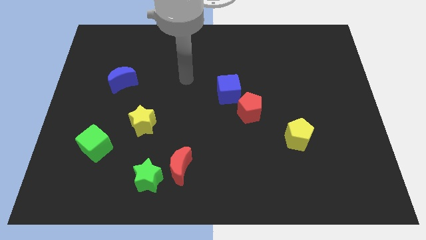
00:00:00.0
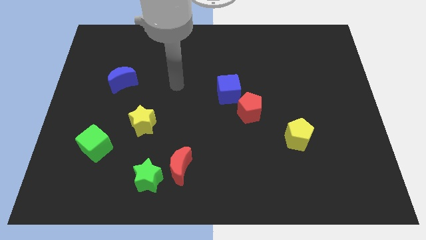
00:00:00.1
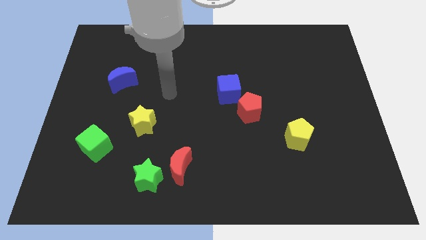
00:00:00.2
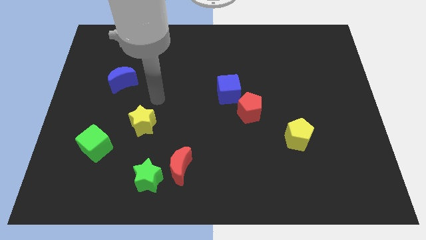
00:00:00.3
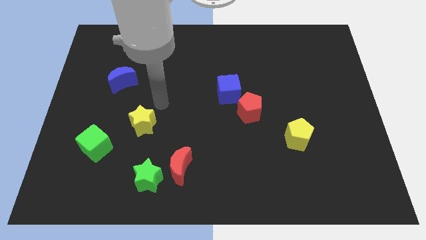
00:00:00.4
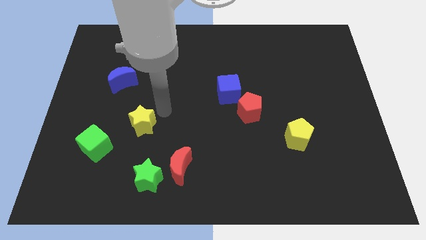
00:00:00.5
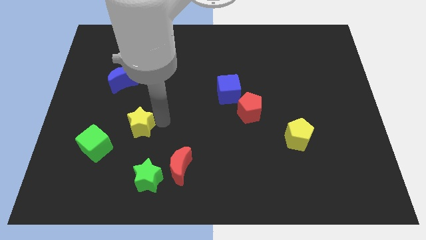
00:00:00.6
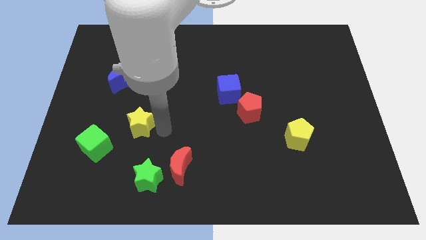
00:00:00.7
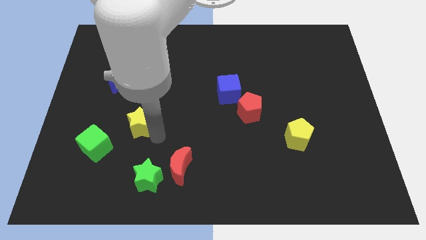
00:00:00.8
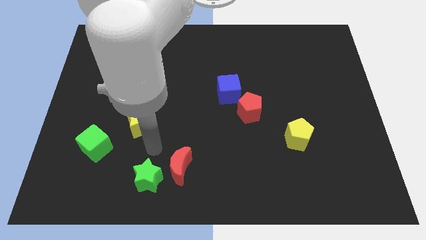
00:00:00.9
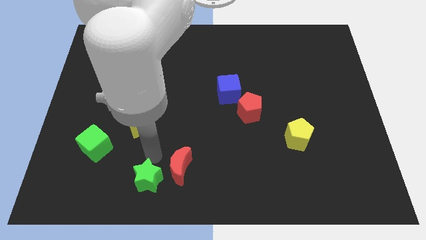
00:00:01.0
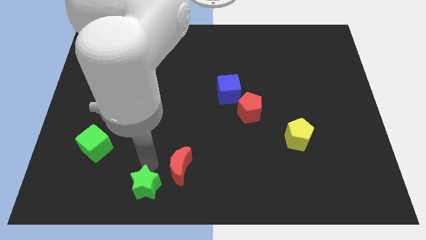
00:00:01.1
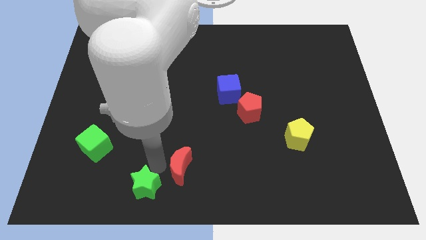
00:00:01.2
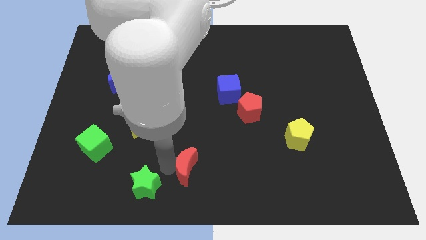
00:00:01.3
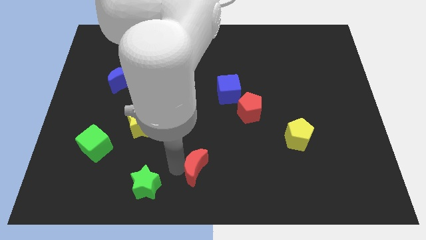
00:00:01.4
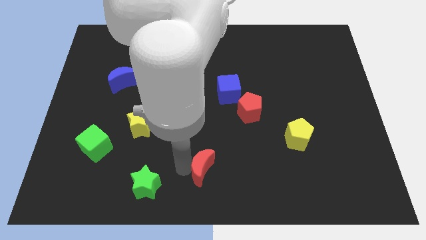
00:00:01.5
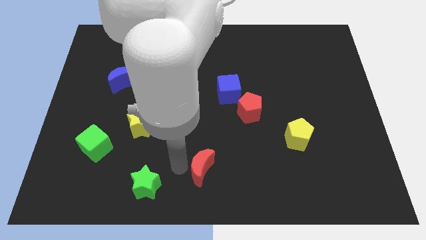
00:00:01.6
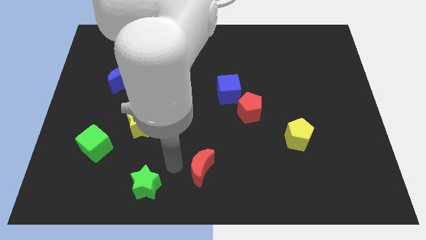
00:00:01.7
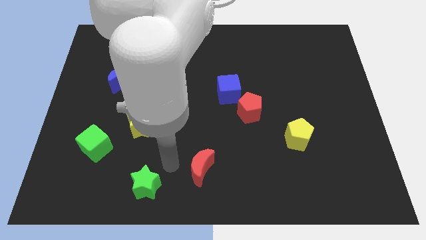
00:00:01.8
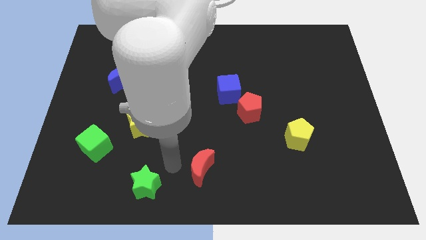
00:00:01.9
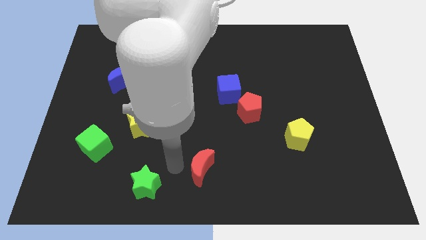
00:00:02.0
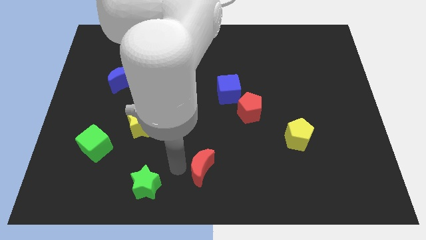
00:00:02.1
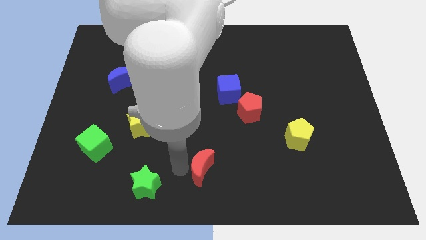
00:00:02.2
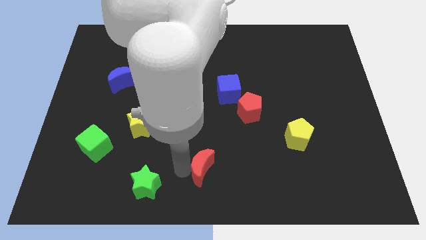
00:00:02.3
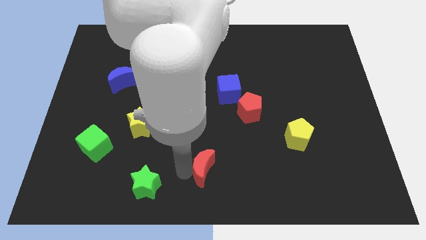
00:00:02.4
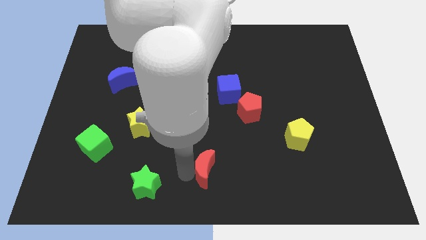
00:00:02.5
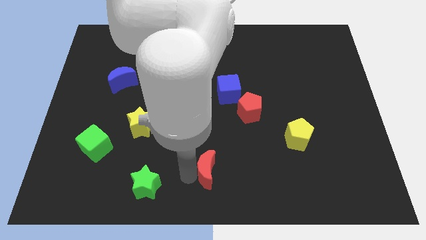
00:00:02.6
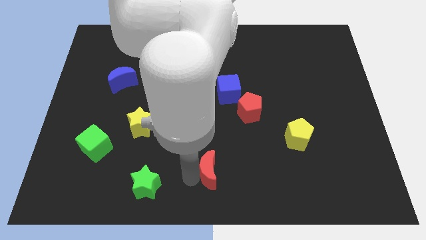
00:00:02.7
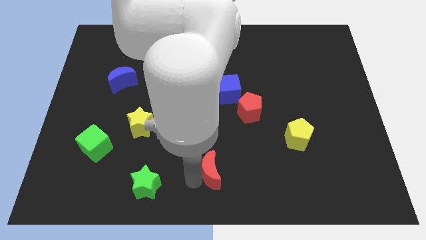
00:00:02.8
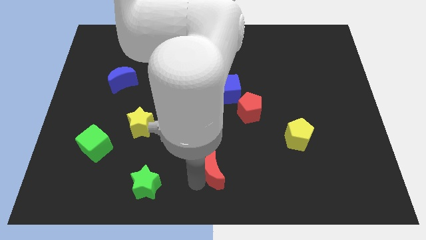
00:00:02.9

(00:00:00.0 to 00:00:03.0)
slightly move the red moon right

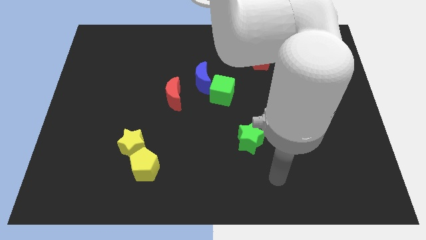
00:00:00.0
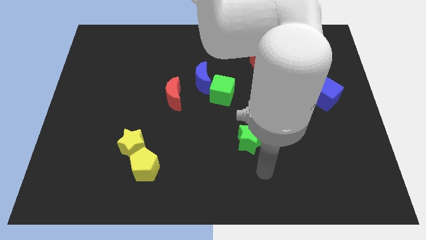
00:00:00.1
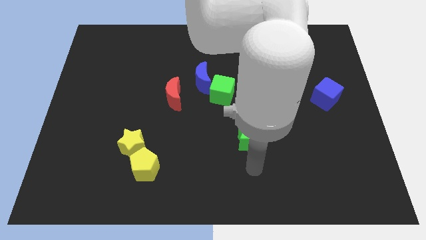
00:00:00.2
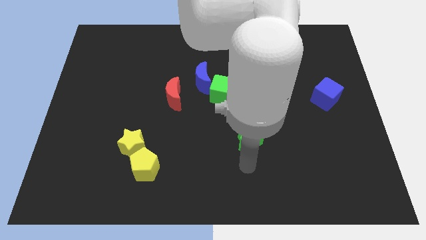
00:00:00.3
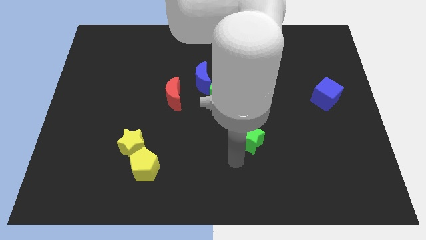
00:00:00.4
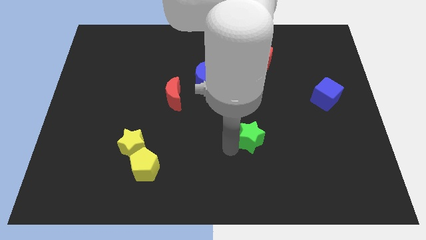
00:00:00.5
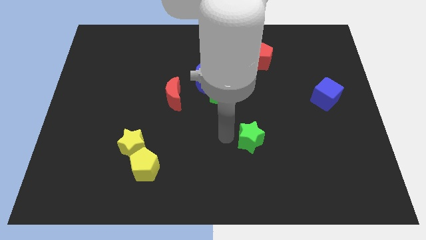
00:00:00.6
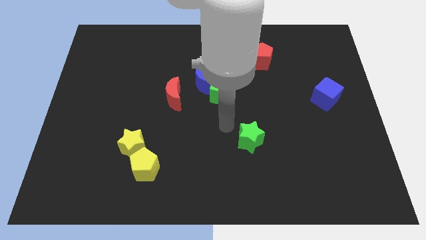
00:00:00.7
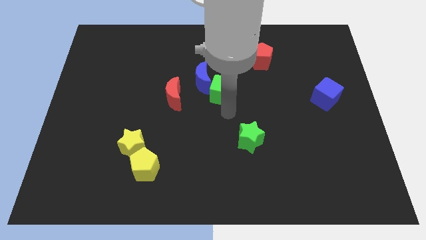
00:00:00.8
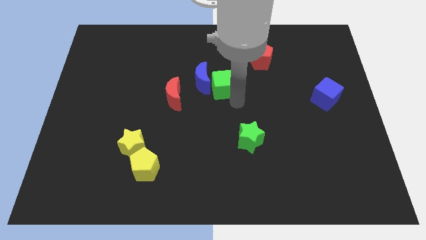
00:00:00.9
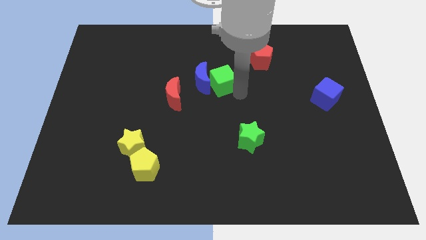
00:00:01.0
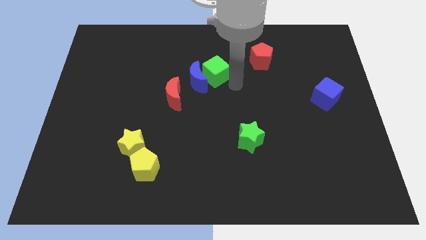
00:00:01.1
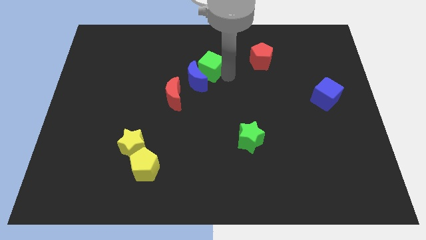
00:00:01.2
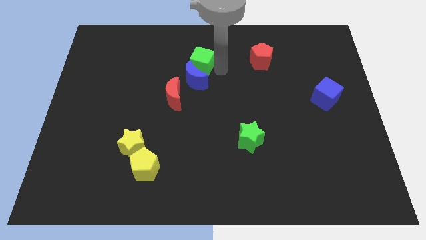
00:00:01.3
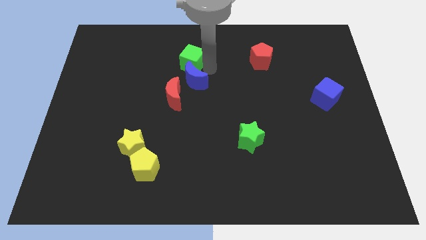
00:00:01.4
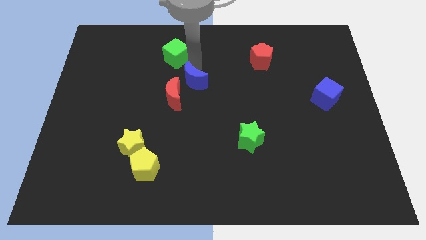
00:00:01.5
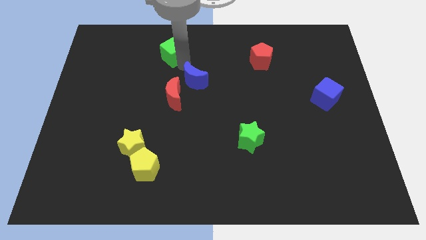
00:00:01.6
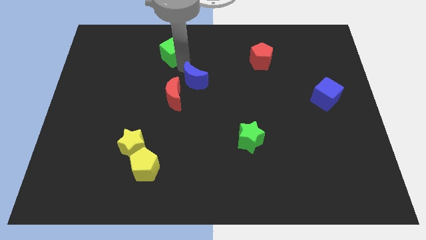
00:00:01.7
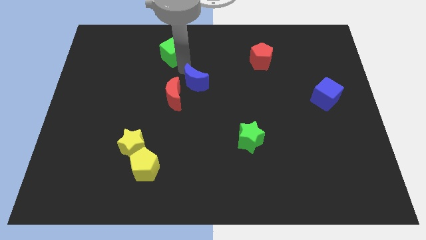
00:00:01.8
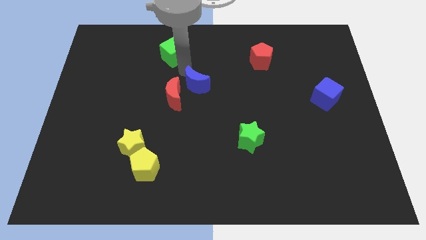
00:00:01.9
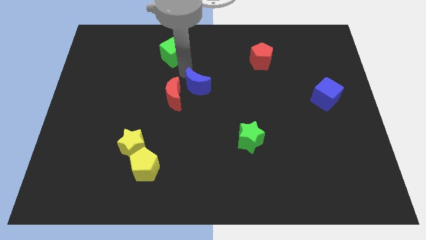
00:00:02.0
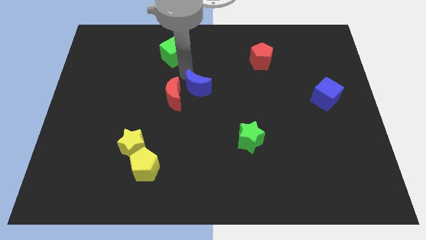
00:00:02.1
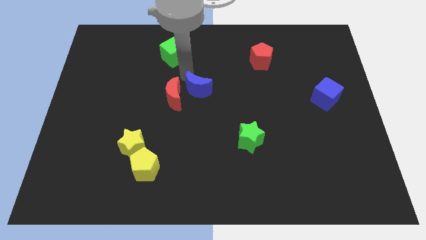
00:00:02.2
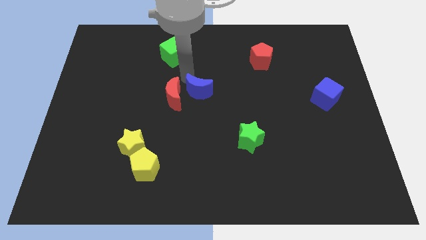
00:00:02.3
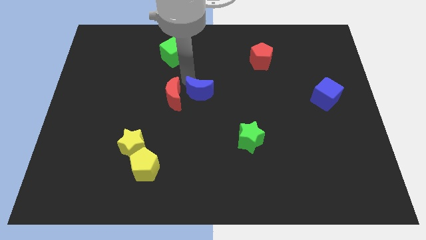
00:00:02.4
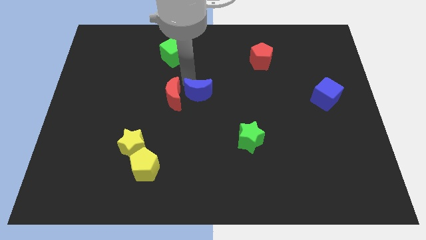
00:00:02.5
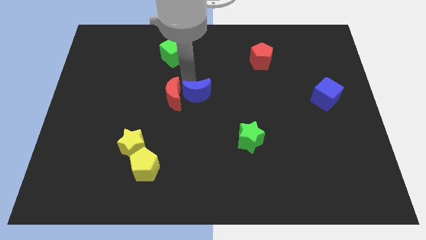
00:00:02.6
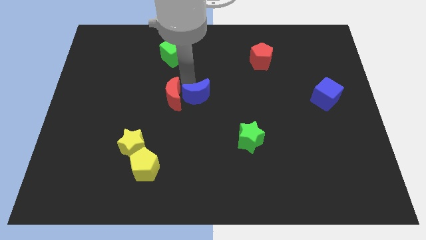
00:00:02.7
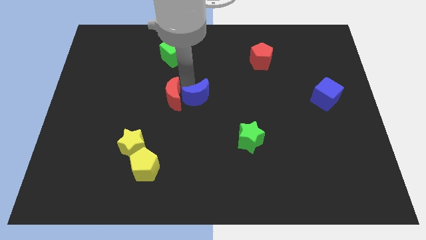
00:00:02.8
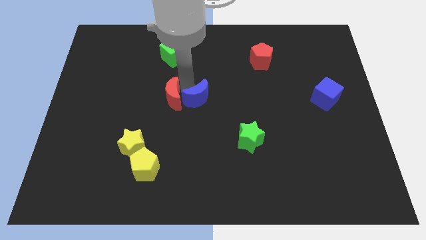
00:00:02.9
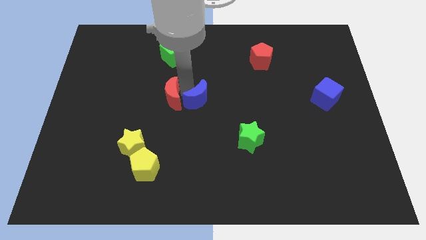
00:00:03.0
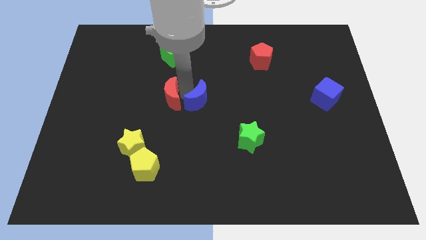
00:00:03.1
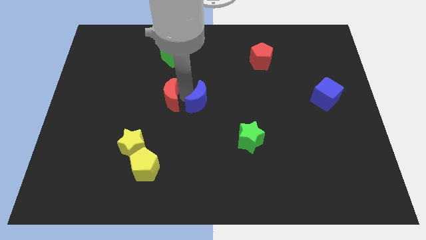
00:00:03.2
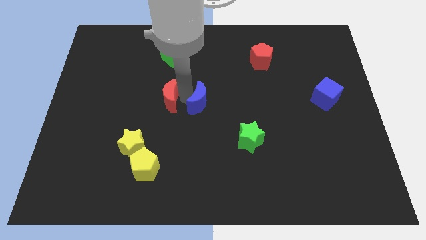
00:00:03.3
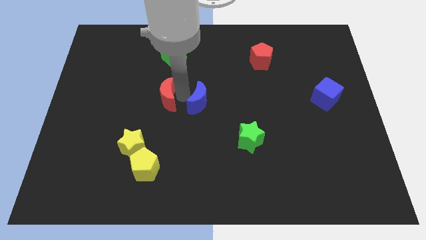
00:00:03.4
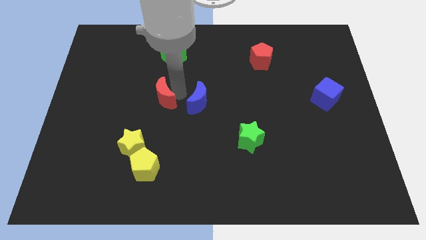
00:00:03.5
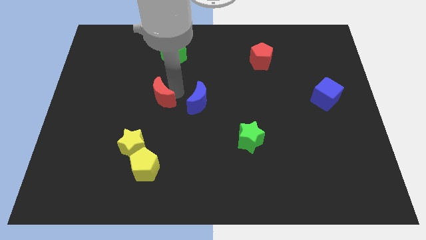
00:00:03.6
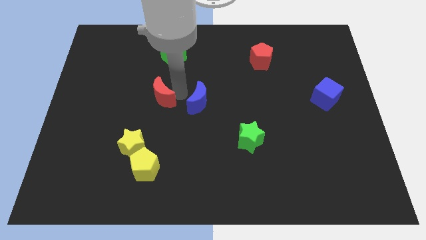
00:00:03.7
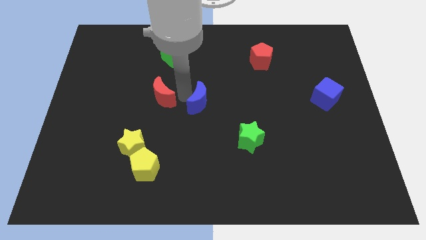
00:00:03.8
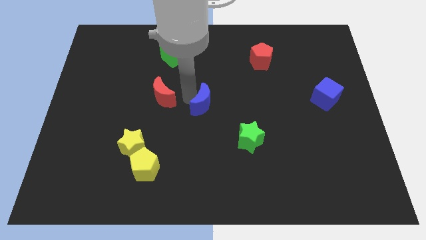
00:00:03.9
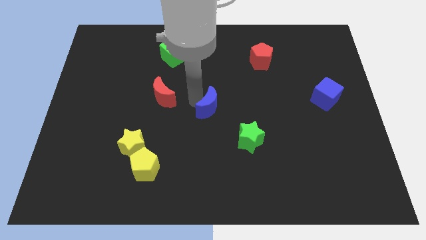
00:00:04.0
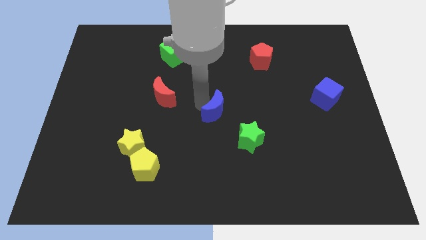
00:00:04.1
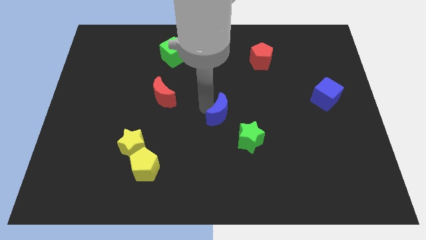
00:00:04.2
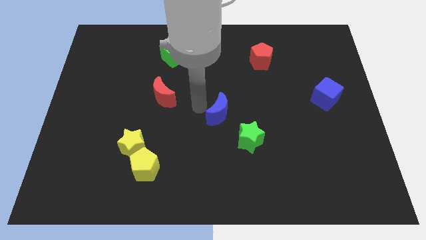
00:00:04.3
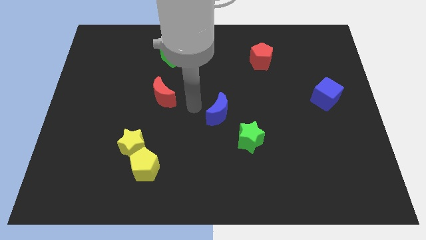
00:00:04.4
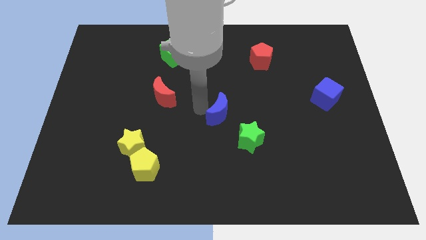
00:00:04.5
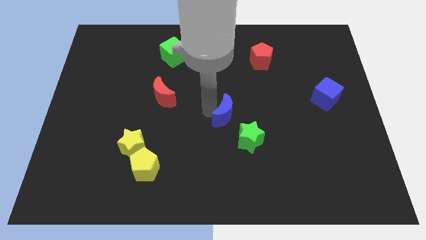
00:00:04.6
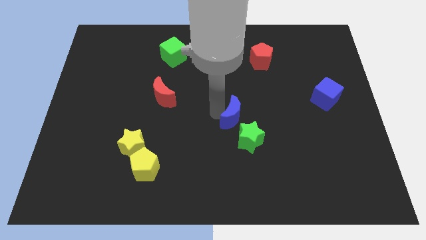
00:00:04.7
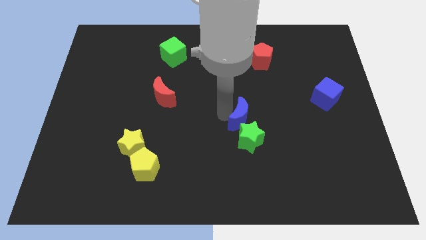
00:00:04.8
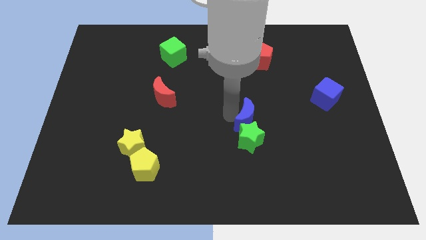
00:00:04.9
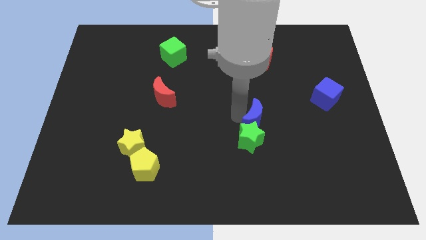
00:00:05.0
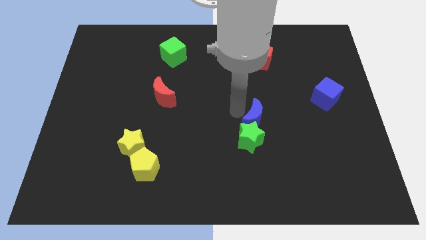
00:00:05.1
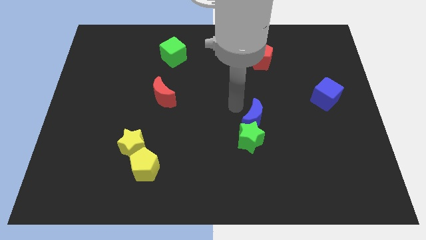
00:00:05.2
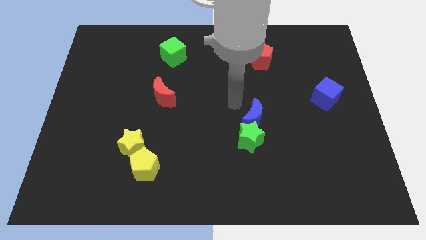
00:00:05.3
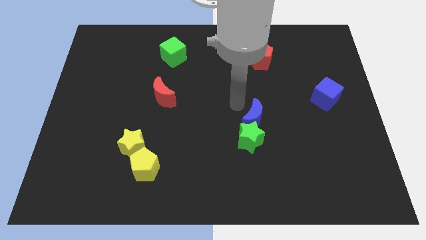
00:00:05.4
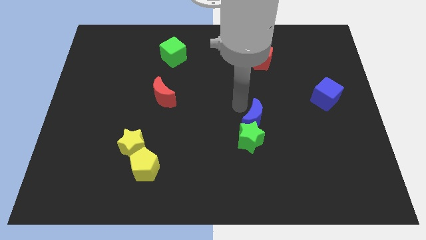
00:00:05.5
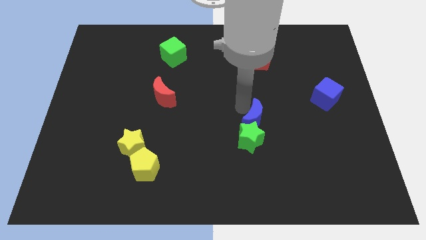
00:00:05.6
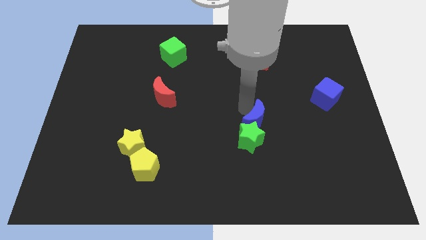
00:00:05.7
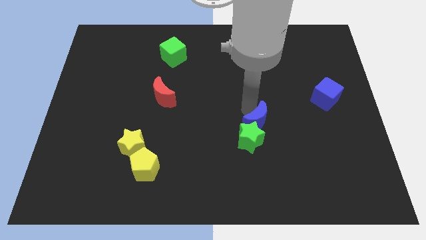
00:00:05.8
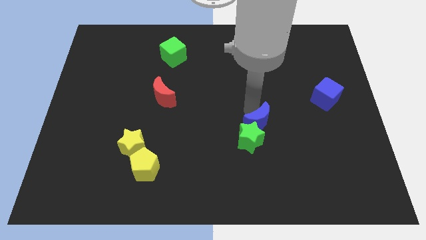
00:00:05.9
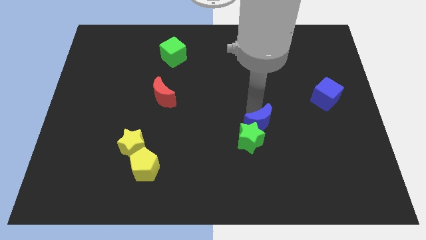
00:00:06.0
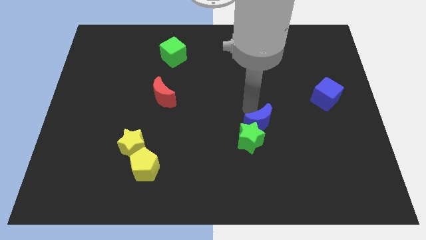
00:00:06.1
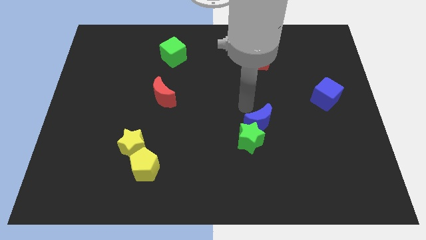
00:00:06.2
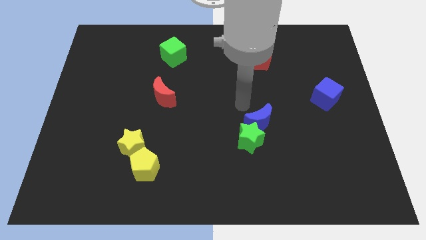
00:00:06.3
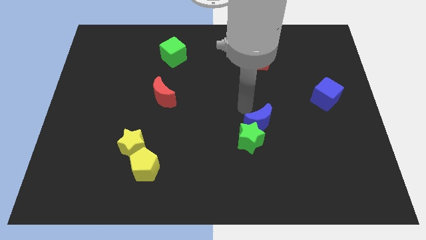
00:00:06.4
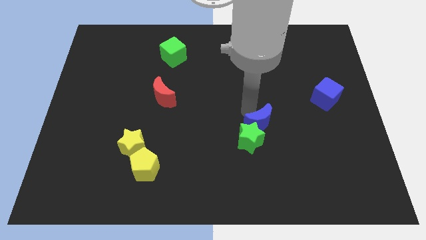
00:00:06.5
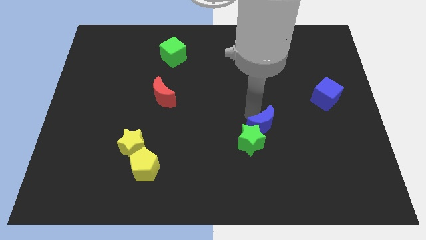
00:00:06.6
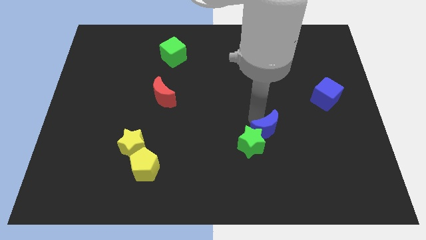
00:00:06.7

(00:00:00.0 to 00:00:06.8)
slide the blue moon down and to the right
